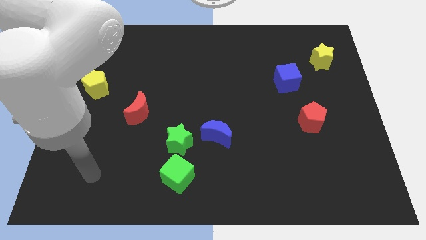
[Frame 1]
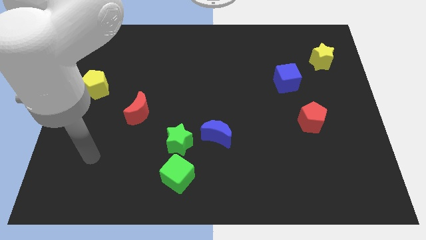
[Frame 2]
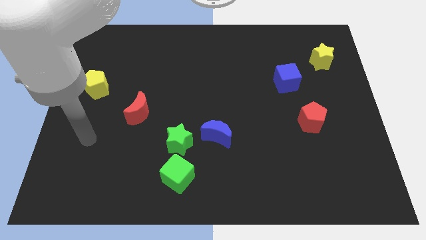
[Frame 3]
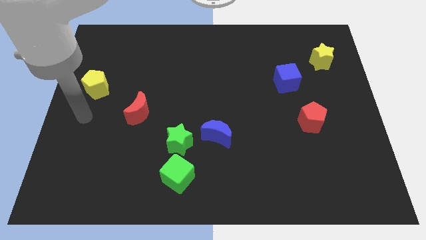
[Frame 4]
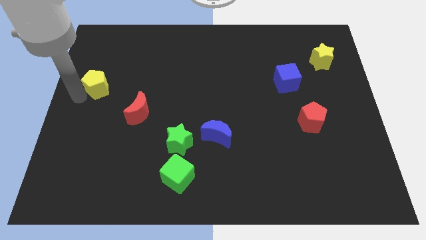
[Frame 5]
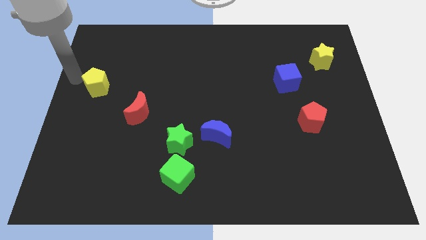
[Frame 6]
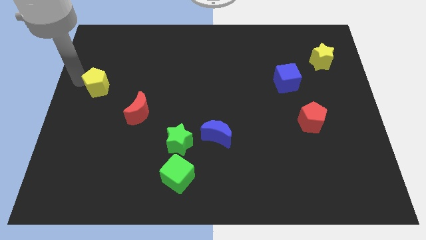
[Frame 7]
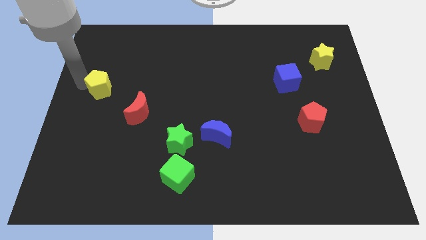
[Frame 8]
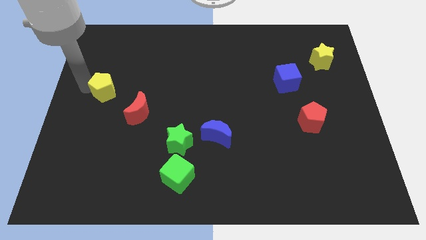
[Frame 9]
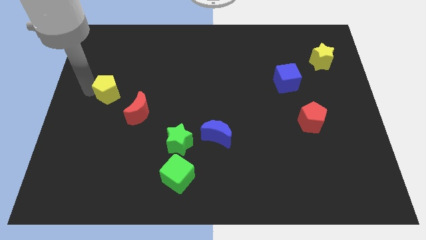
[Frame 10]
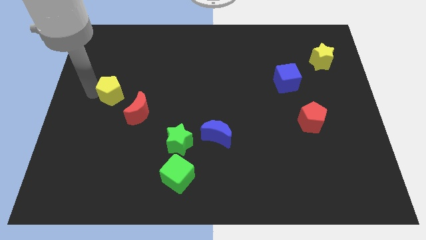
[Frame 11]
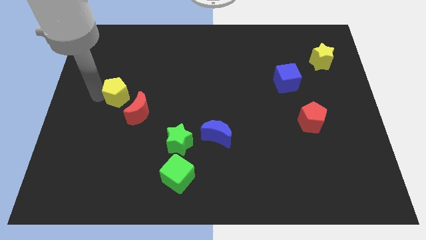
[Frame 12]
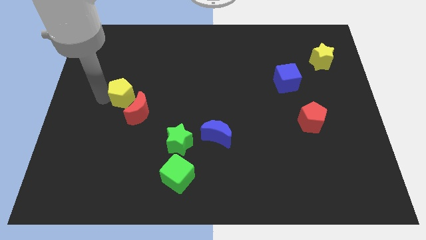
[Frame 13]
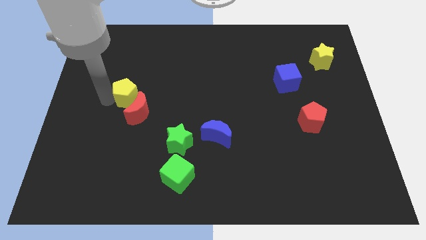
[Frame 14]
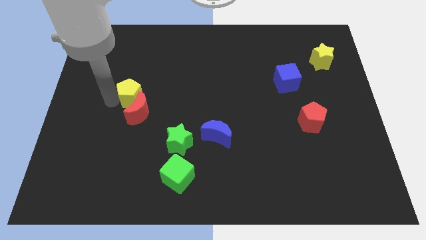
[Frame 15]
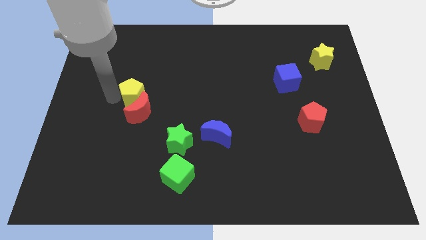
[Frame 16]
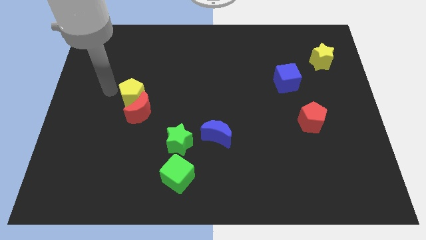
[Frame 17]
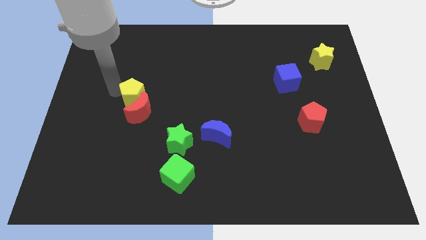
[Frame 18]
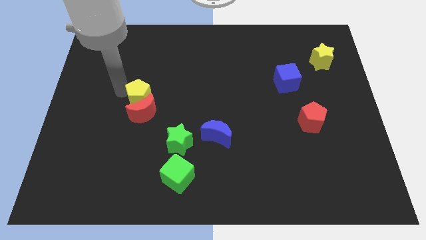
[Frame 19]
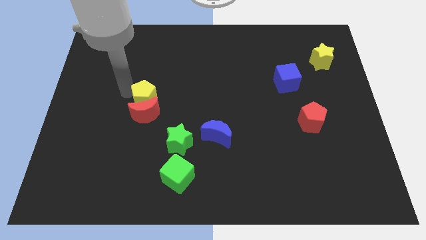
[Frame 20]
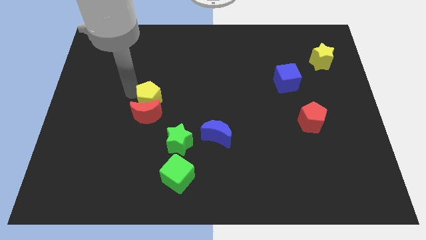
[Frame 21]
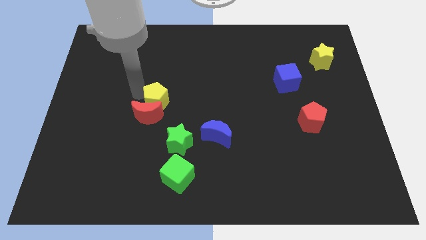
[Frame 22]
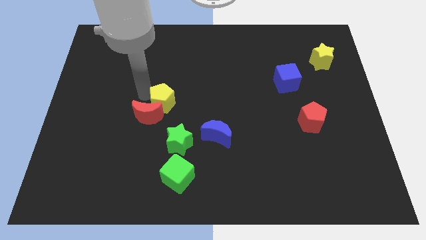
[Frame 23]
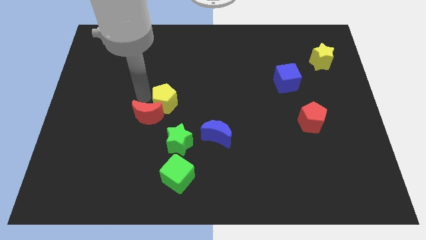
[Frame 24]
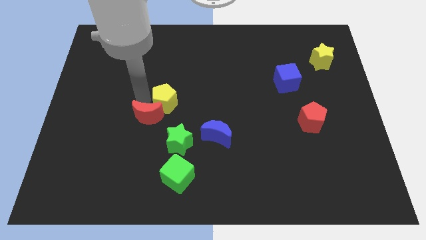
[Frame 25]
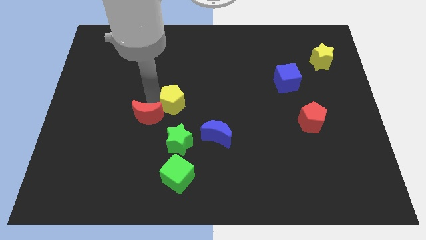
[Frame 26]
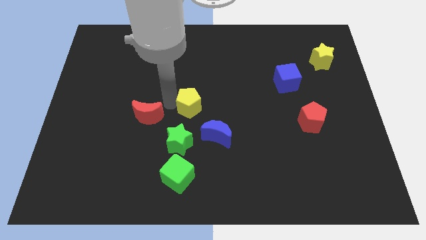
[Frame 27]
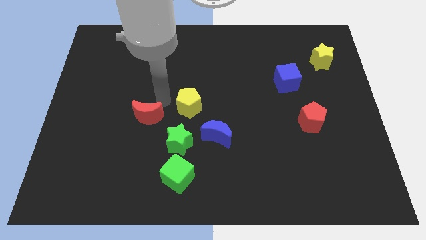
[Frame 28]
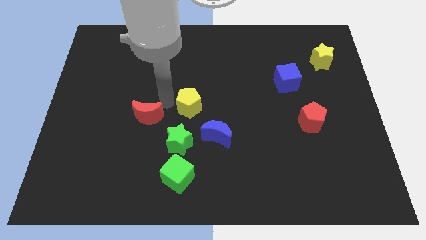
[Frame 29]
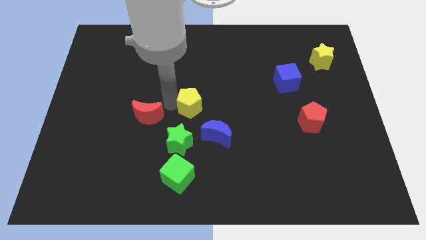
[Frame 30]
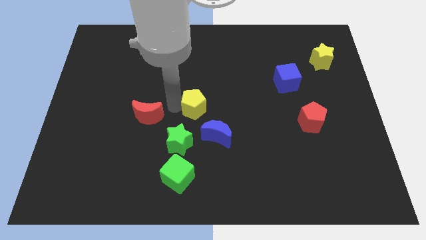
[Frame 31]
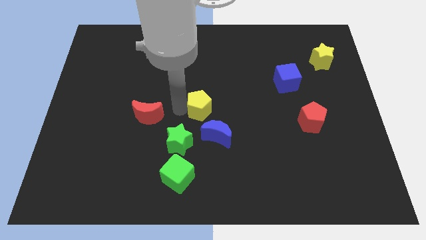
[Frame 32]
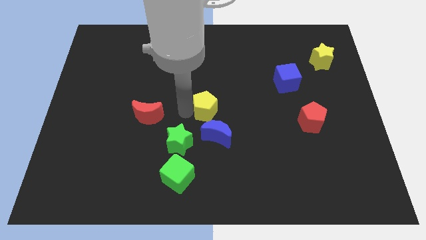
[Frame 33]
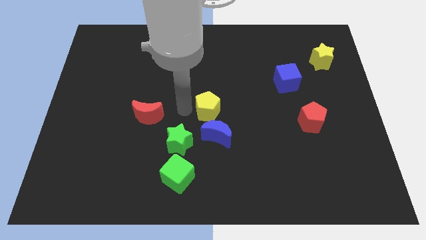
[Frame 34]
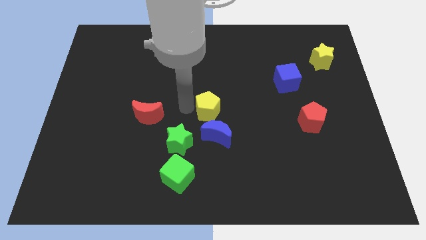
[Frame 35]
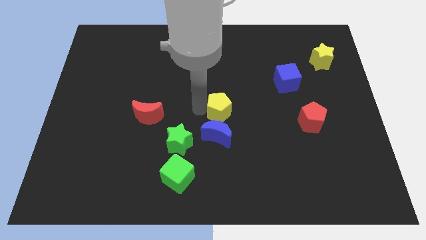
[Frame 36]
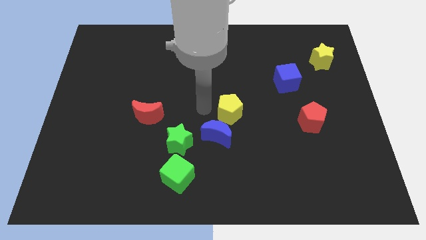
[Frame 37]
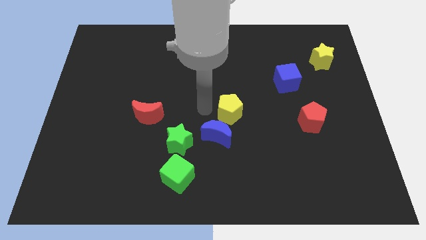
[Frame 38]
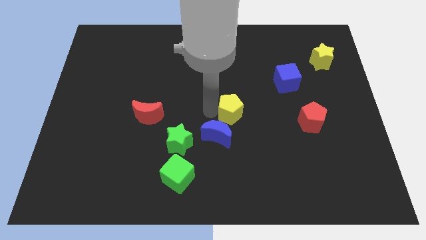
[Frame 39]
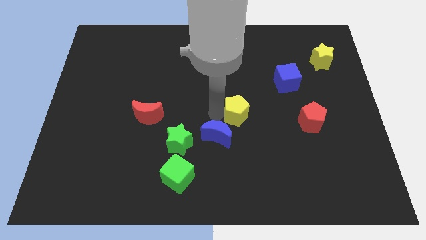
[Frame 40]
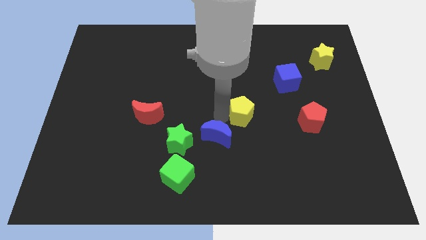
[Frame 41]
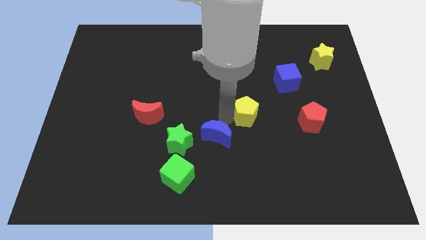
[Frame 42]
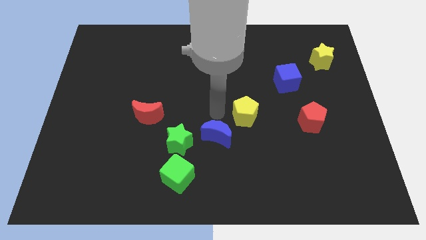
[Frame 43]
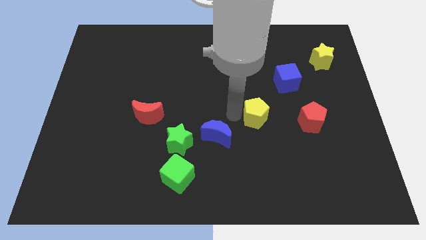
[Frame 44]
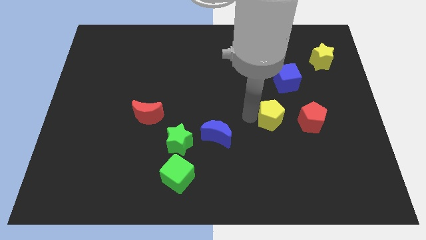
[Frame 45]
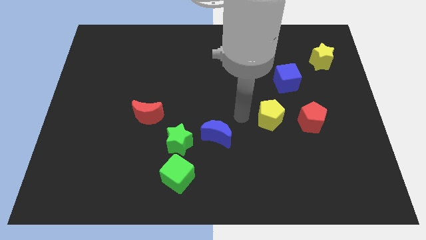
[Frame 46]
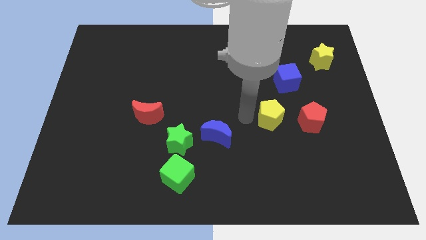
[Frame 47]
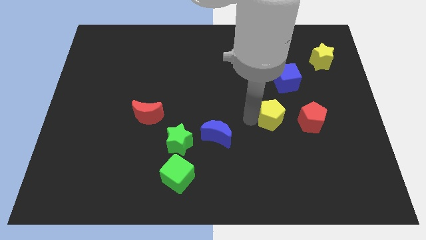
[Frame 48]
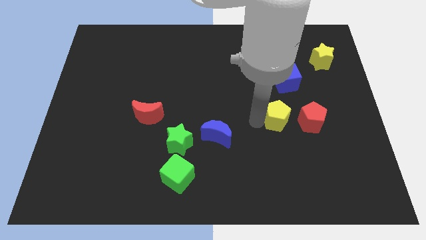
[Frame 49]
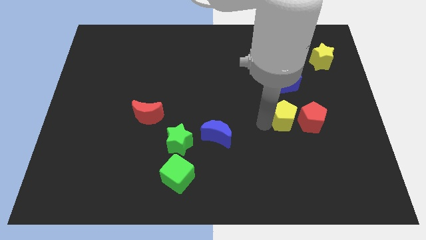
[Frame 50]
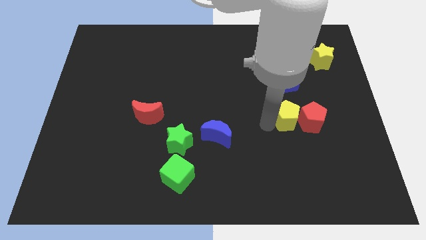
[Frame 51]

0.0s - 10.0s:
slide the yellow pentagon towards the red pentagon
